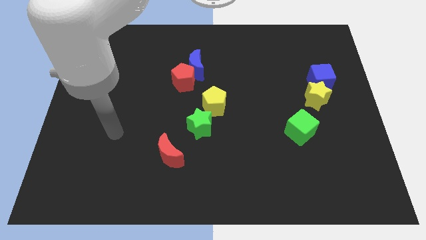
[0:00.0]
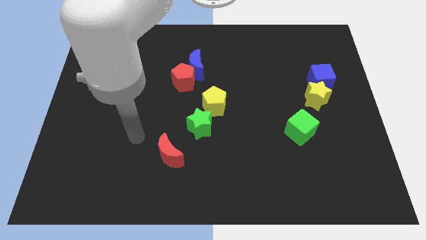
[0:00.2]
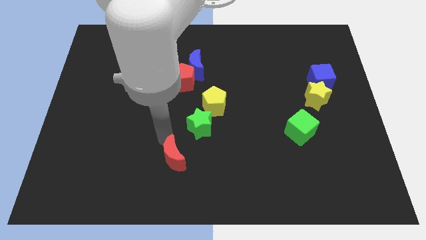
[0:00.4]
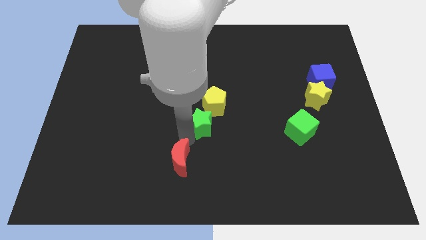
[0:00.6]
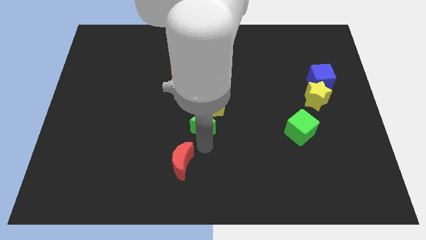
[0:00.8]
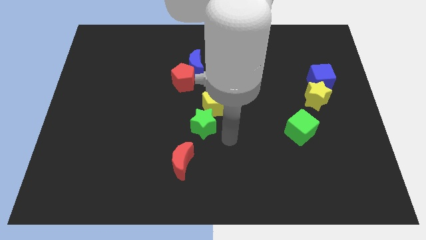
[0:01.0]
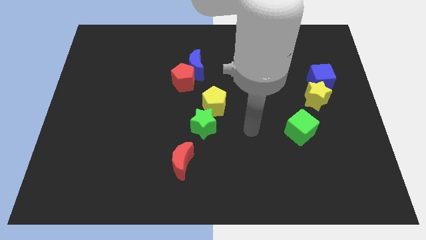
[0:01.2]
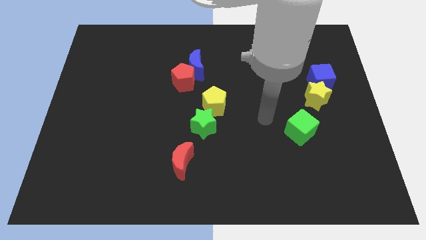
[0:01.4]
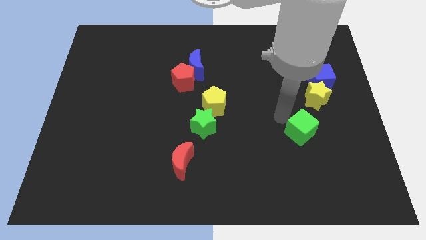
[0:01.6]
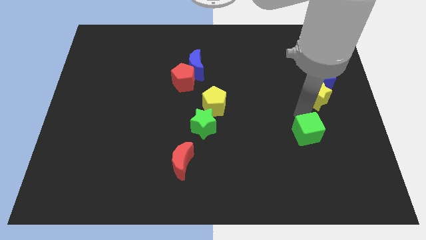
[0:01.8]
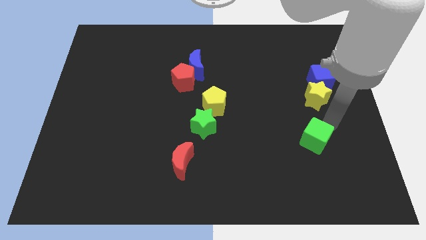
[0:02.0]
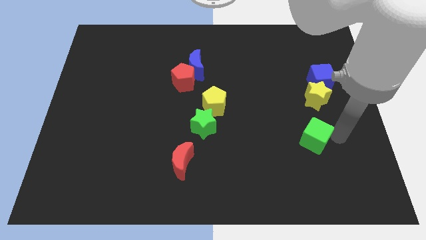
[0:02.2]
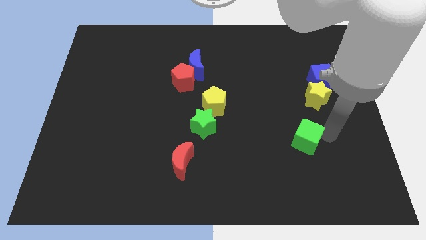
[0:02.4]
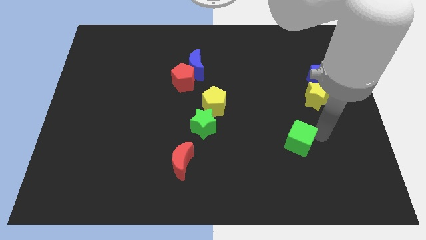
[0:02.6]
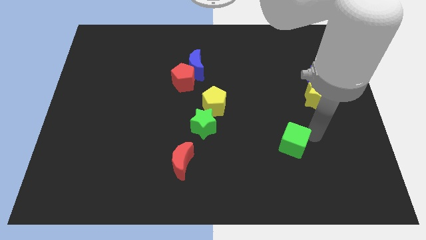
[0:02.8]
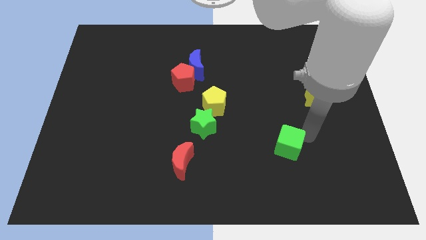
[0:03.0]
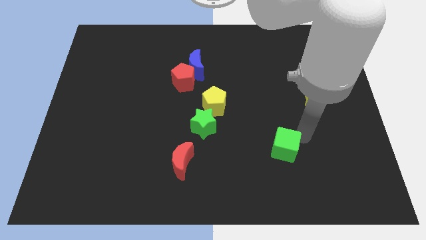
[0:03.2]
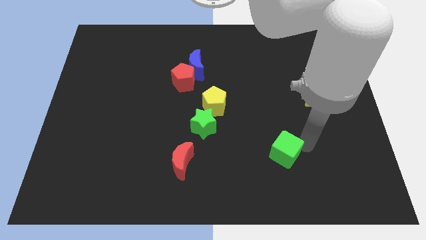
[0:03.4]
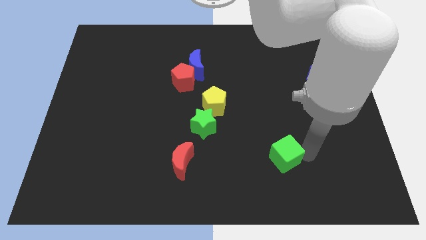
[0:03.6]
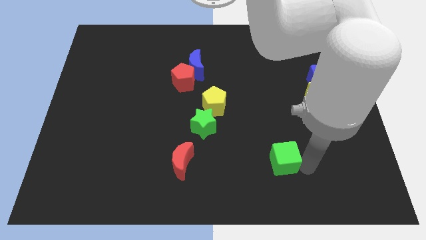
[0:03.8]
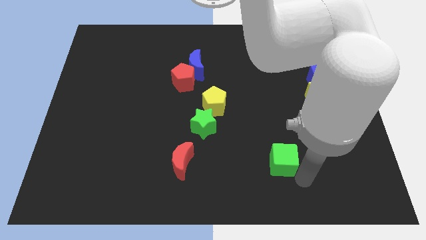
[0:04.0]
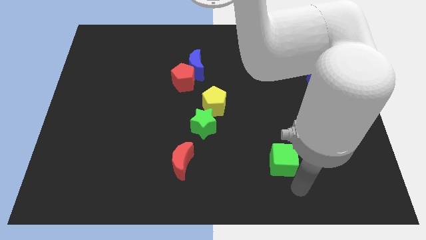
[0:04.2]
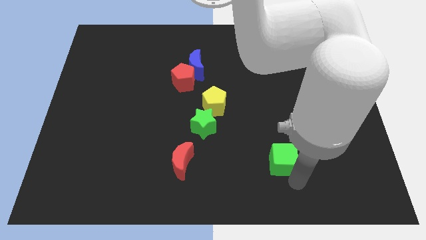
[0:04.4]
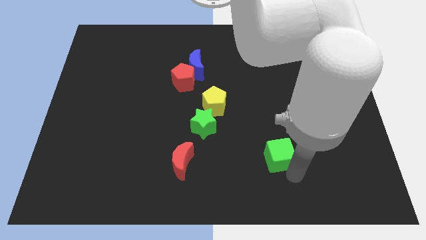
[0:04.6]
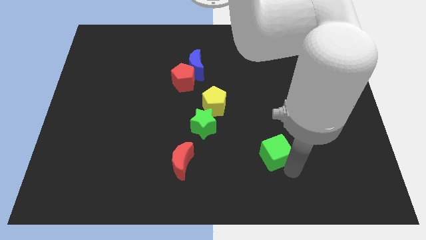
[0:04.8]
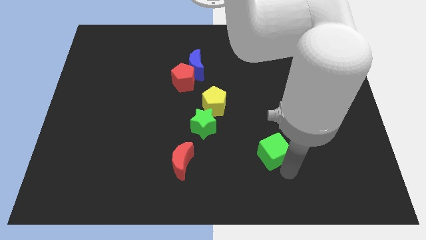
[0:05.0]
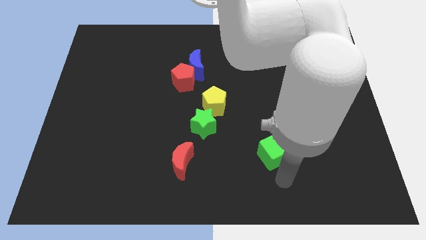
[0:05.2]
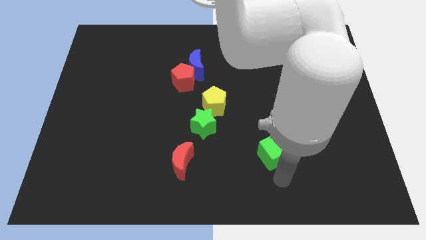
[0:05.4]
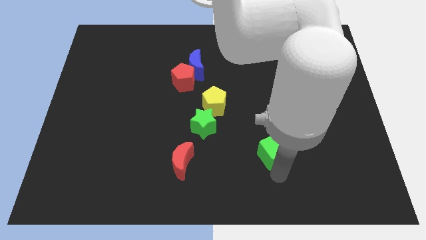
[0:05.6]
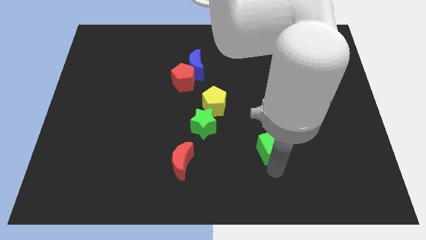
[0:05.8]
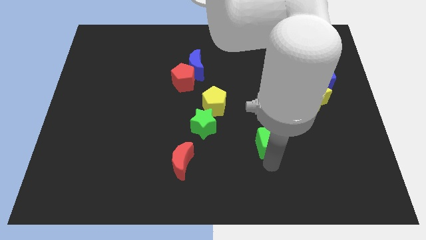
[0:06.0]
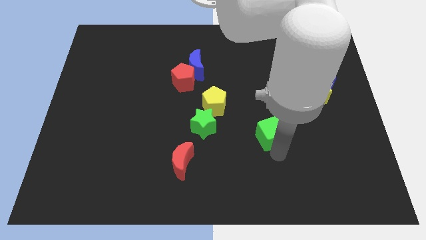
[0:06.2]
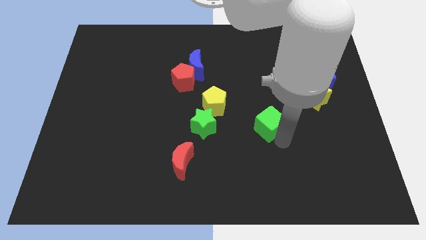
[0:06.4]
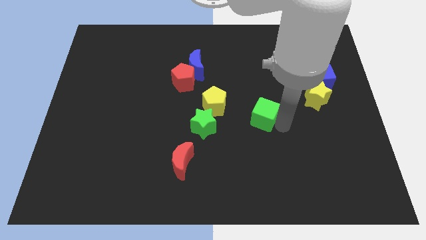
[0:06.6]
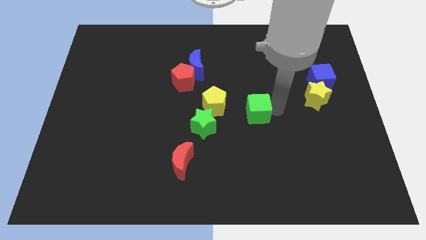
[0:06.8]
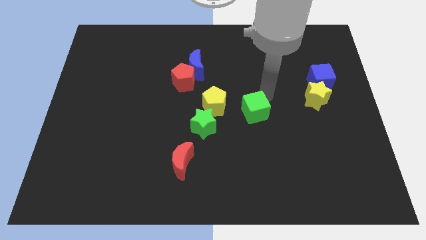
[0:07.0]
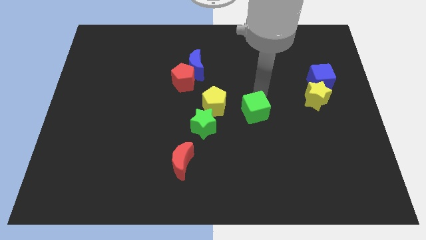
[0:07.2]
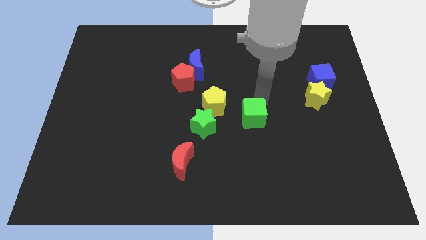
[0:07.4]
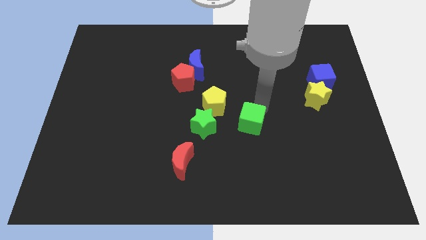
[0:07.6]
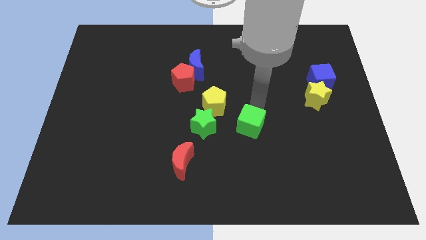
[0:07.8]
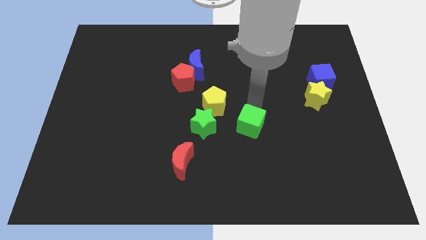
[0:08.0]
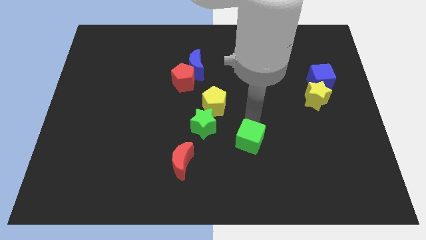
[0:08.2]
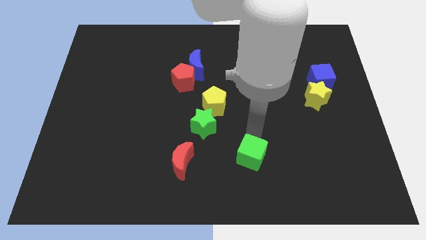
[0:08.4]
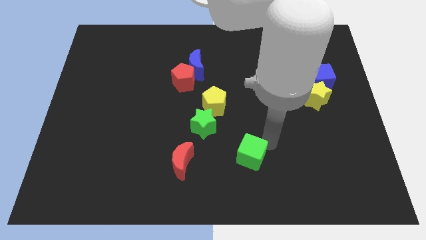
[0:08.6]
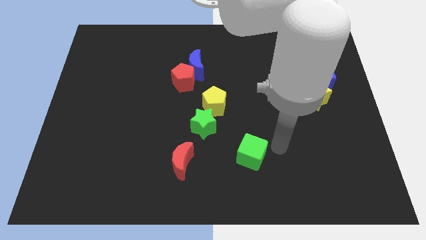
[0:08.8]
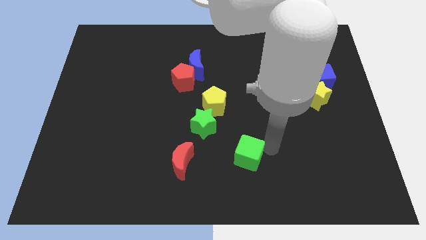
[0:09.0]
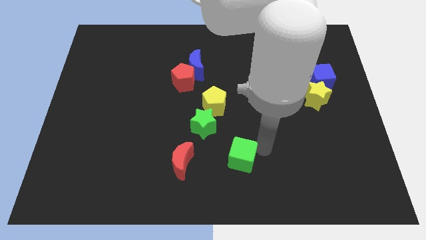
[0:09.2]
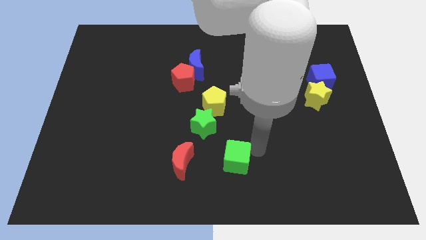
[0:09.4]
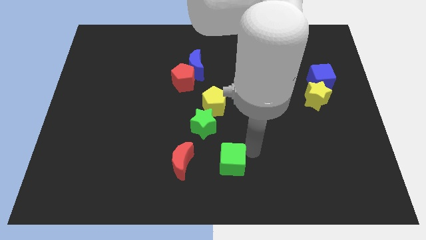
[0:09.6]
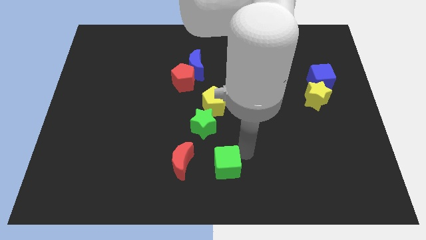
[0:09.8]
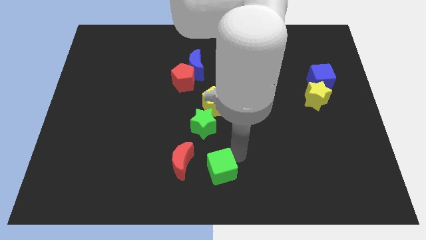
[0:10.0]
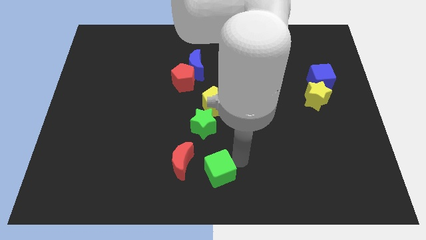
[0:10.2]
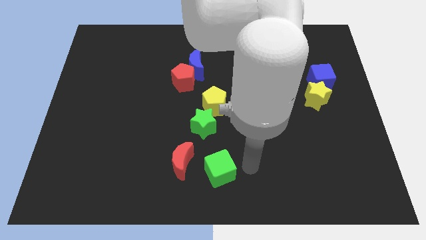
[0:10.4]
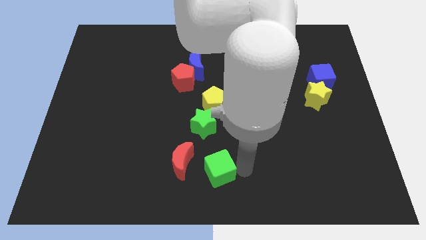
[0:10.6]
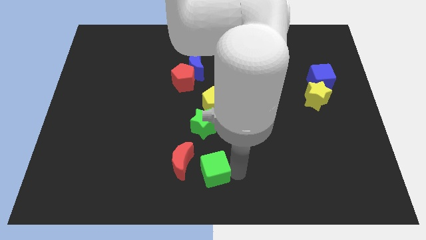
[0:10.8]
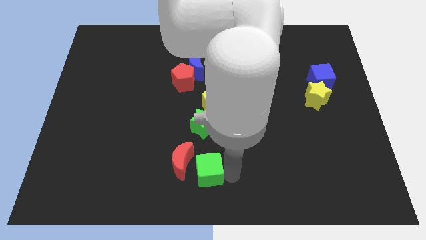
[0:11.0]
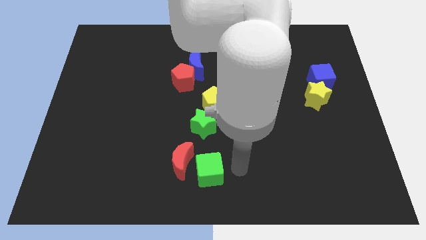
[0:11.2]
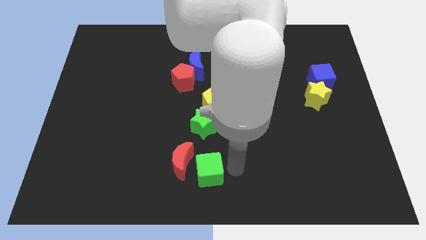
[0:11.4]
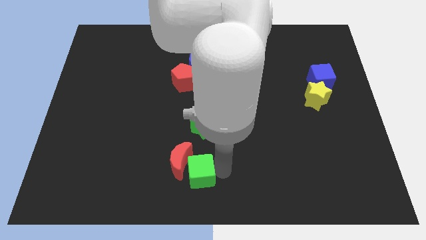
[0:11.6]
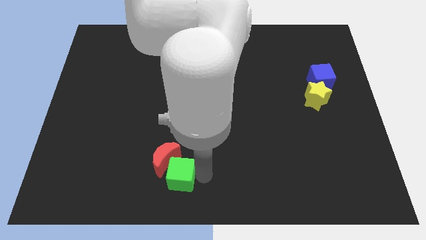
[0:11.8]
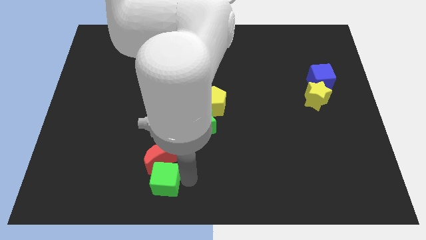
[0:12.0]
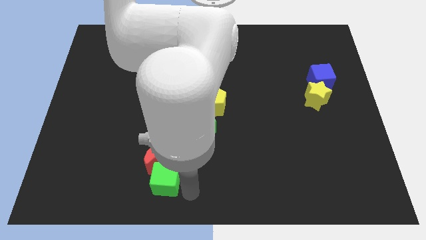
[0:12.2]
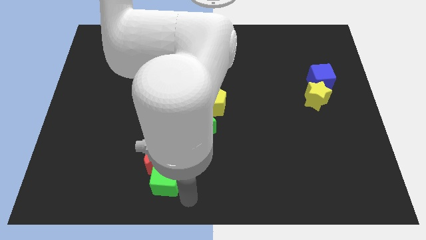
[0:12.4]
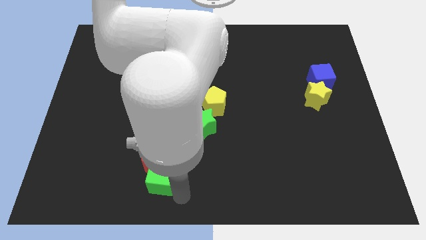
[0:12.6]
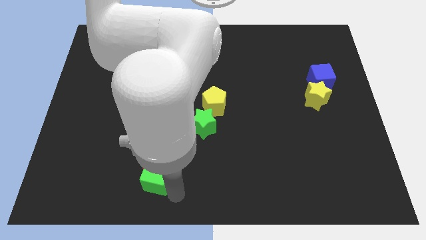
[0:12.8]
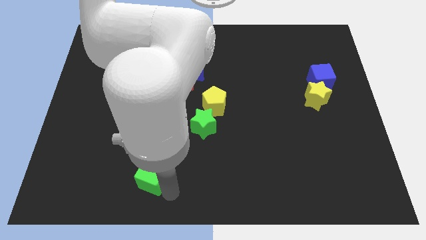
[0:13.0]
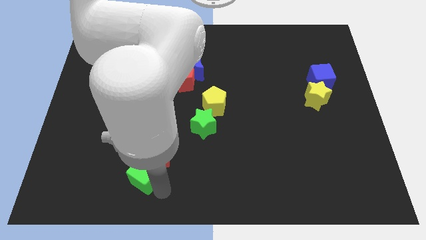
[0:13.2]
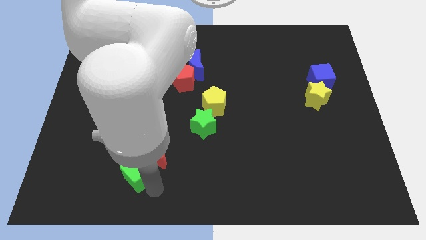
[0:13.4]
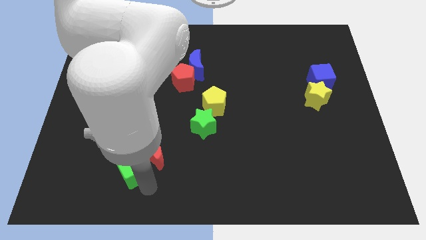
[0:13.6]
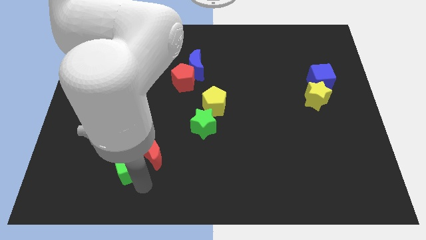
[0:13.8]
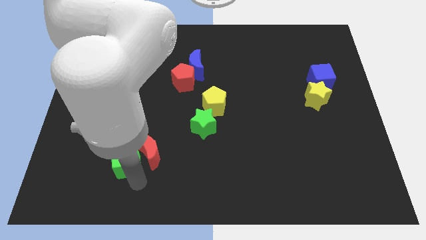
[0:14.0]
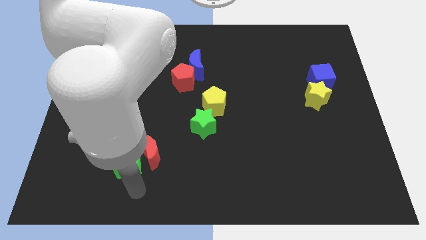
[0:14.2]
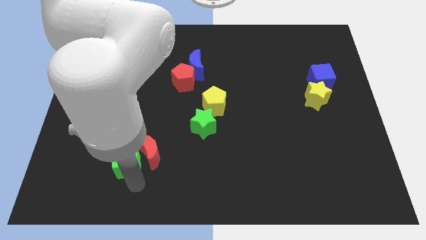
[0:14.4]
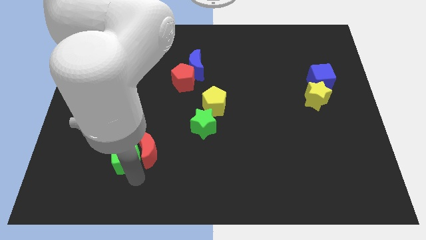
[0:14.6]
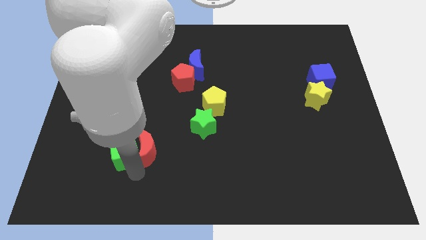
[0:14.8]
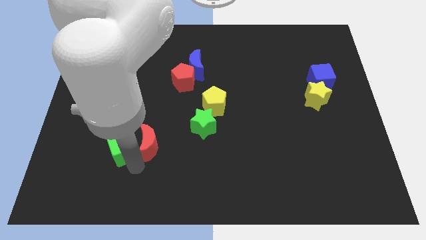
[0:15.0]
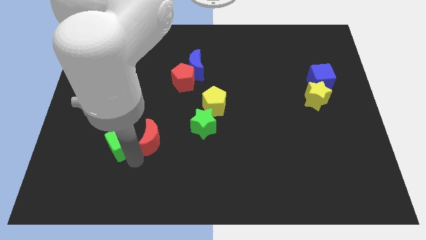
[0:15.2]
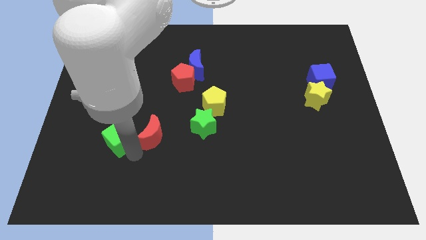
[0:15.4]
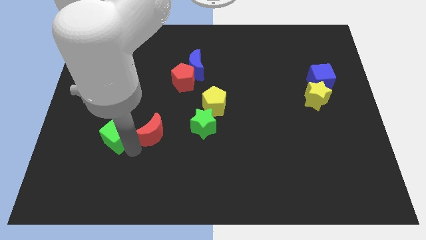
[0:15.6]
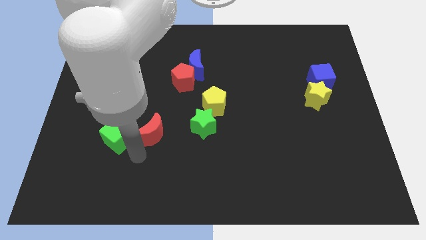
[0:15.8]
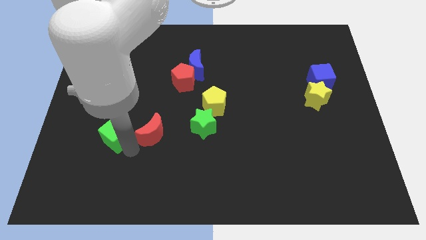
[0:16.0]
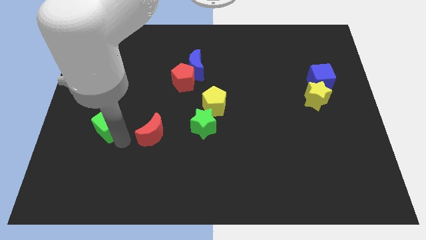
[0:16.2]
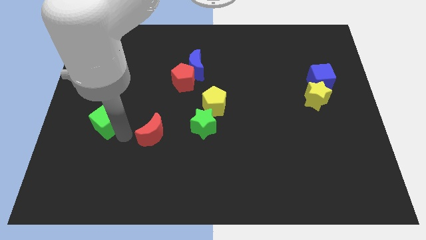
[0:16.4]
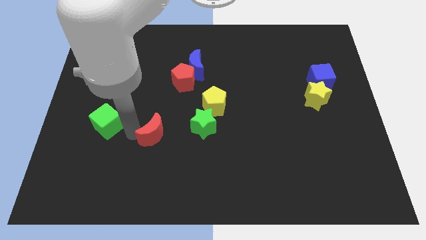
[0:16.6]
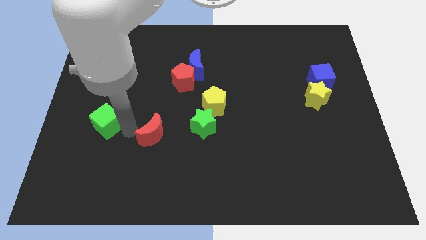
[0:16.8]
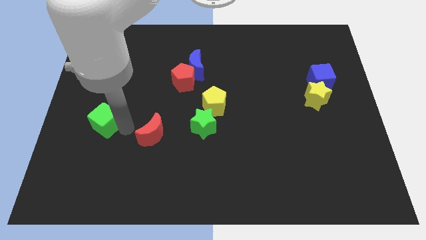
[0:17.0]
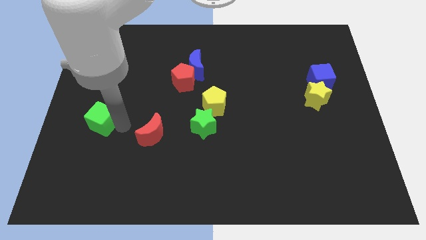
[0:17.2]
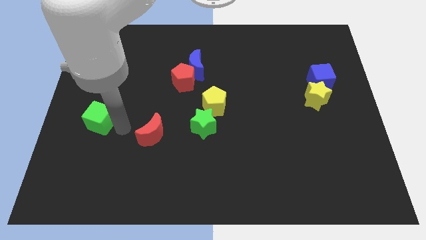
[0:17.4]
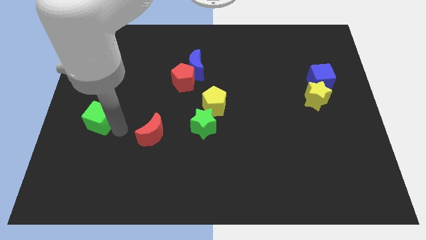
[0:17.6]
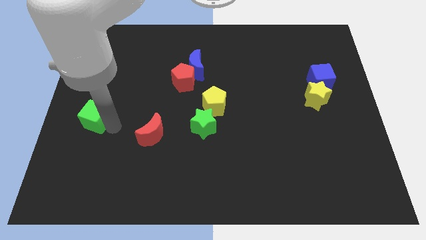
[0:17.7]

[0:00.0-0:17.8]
push the green cube to the left side of the board
